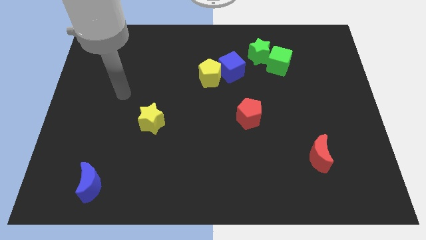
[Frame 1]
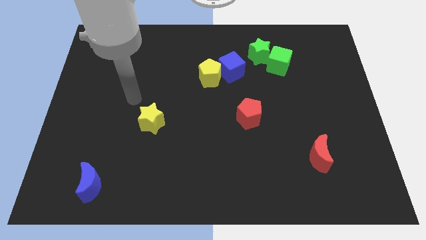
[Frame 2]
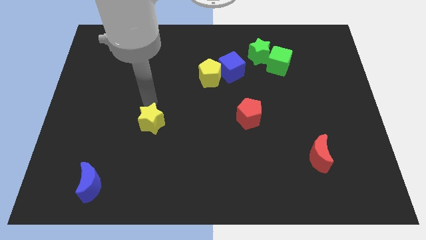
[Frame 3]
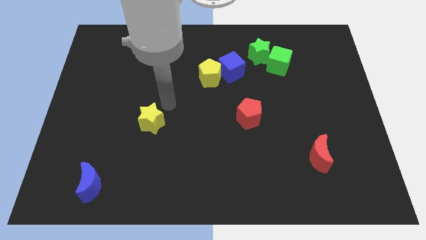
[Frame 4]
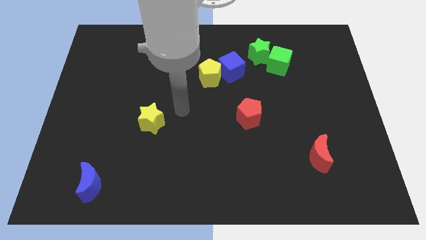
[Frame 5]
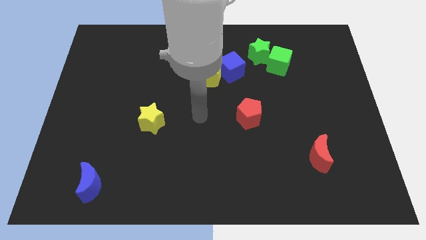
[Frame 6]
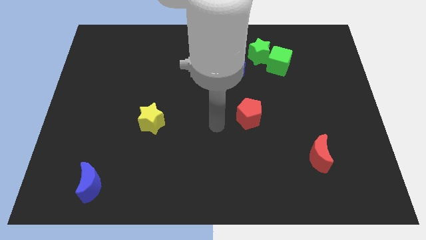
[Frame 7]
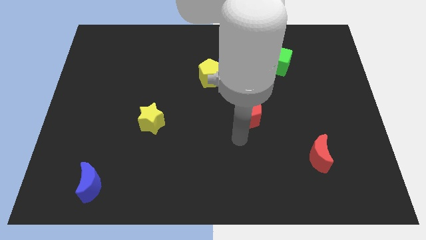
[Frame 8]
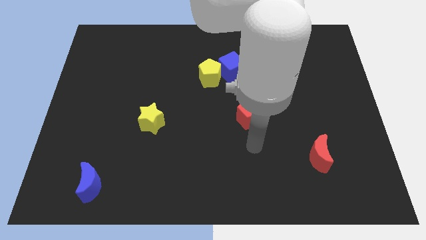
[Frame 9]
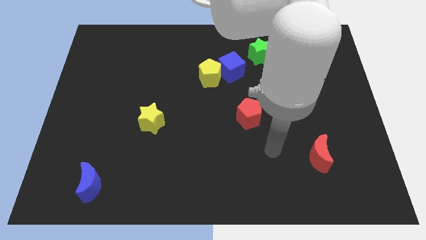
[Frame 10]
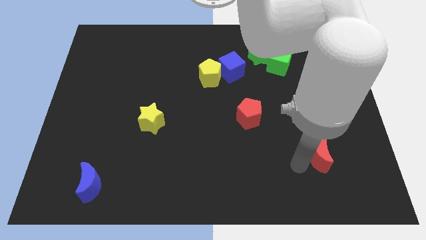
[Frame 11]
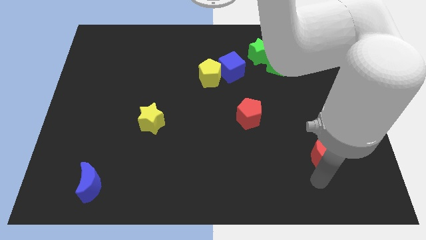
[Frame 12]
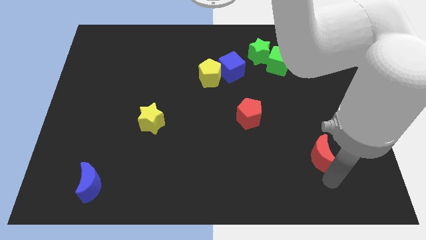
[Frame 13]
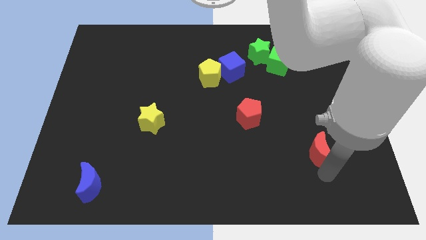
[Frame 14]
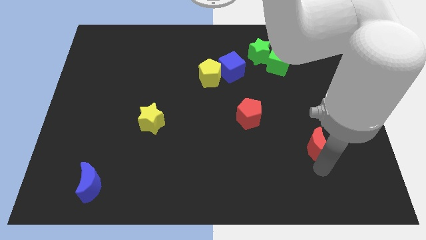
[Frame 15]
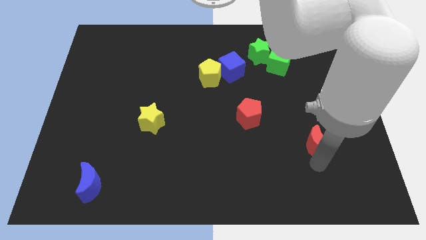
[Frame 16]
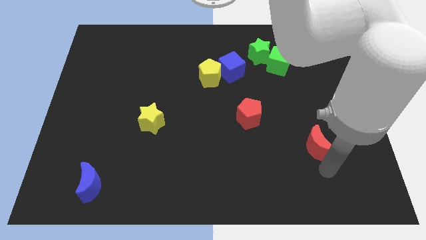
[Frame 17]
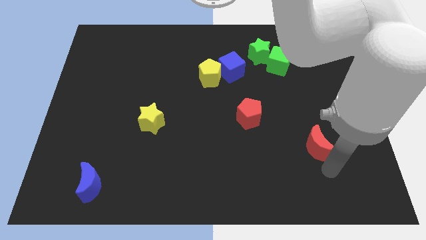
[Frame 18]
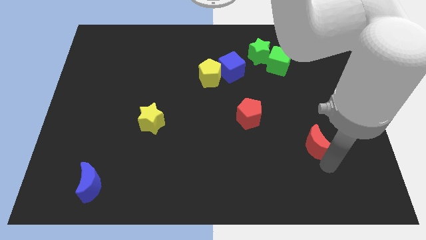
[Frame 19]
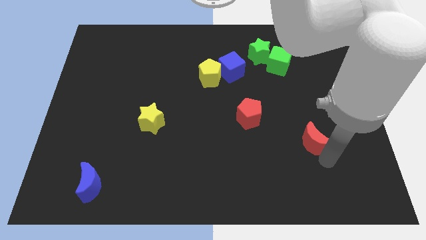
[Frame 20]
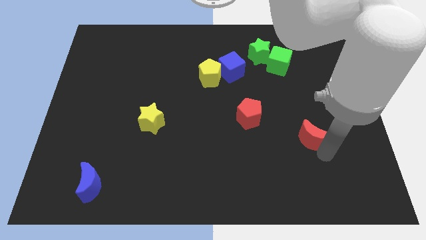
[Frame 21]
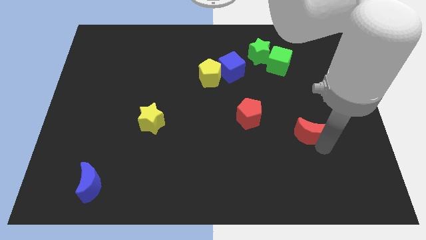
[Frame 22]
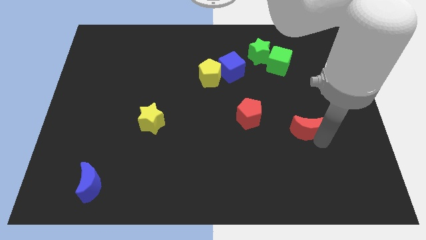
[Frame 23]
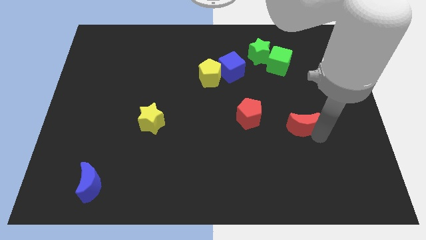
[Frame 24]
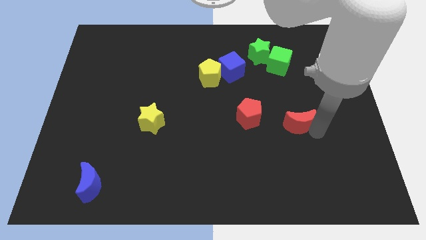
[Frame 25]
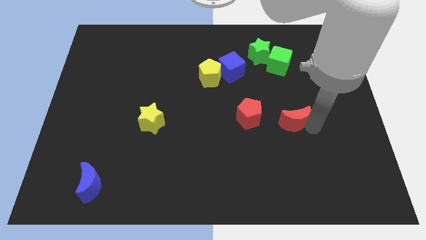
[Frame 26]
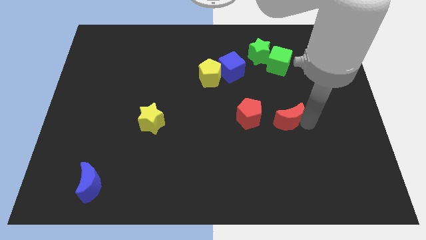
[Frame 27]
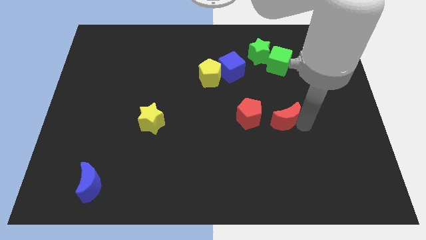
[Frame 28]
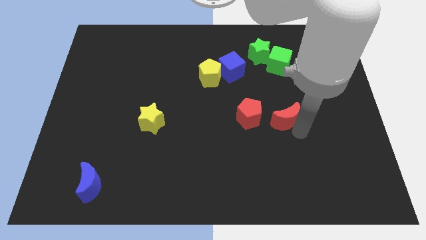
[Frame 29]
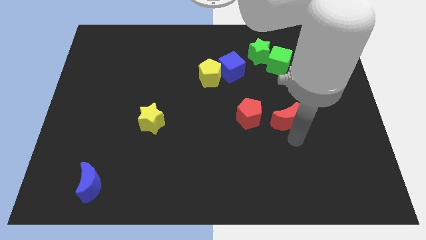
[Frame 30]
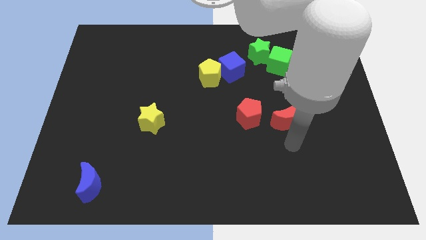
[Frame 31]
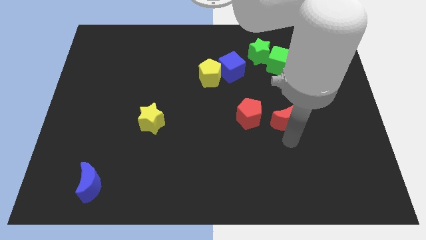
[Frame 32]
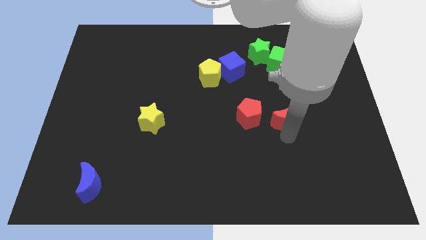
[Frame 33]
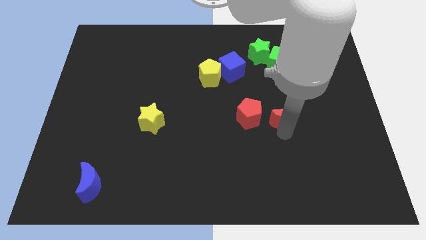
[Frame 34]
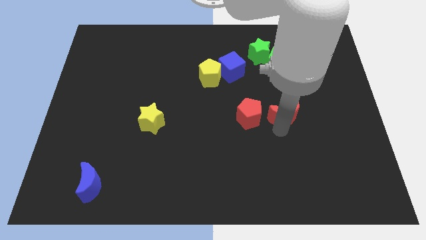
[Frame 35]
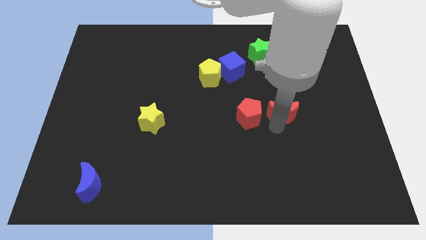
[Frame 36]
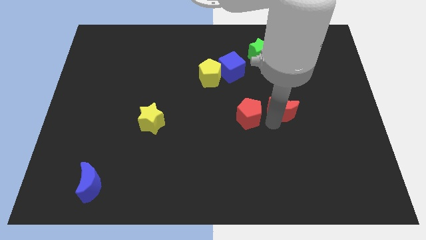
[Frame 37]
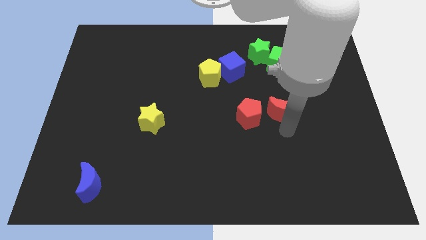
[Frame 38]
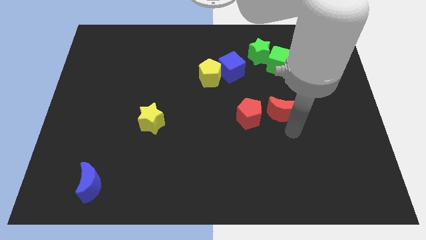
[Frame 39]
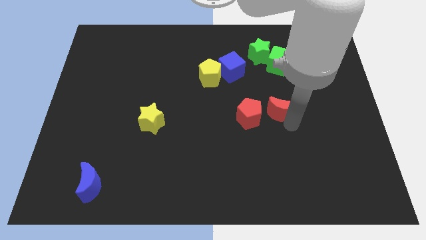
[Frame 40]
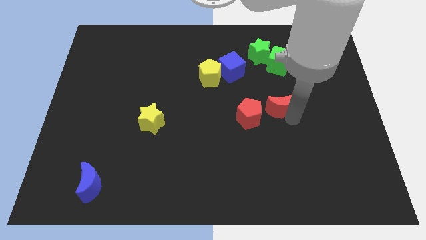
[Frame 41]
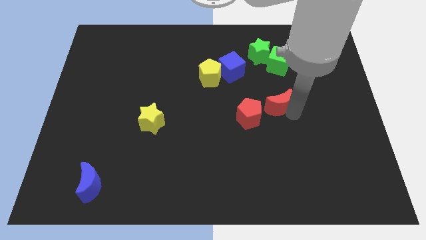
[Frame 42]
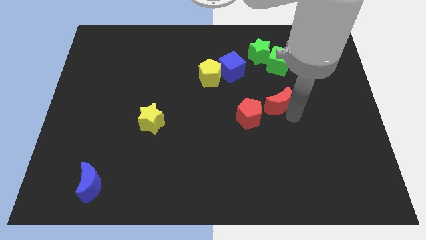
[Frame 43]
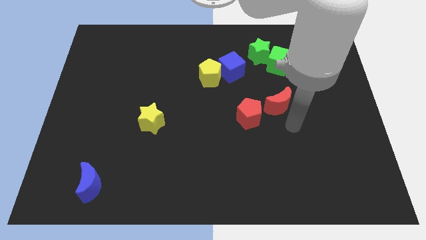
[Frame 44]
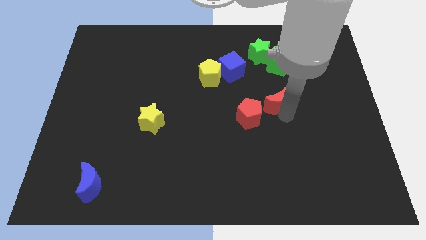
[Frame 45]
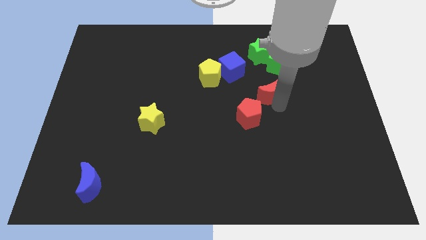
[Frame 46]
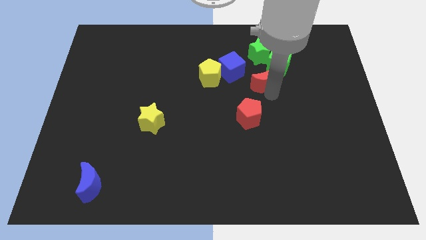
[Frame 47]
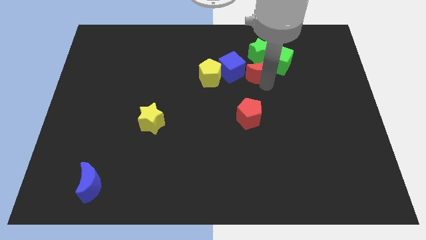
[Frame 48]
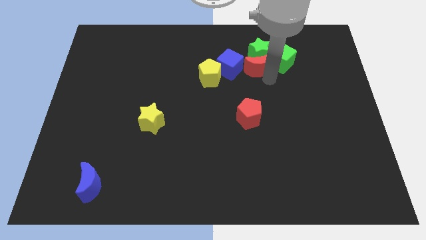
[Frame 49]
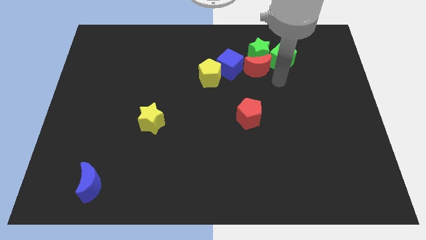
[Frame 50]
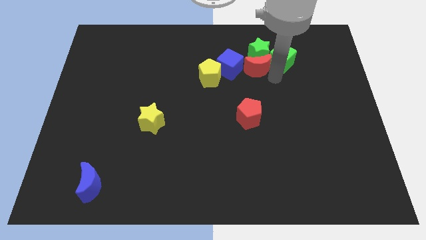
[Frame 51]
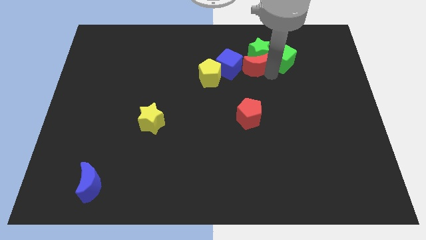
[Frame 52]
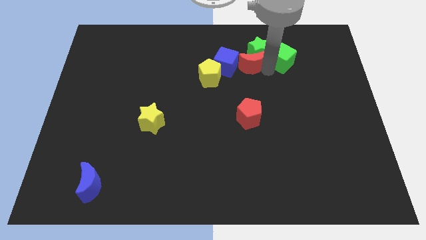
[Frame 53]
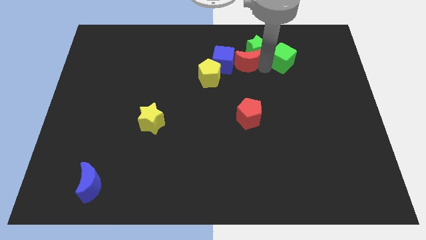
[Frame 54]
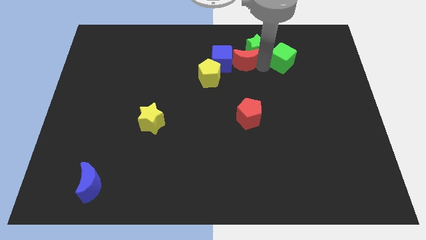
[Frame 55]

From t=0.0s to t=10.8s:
push the red moon left of the green star
